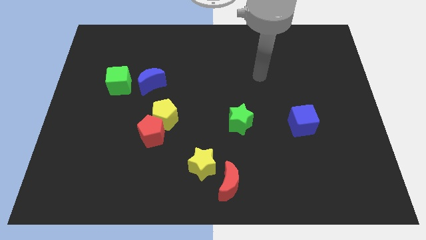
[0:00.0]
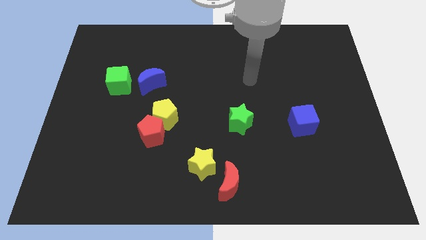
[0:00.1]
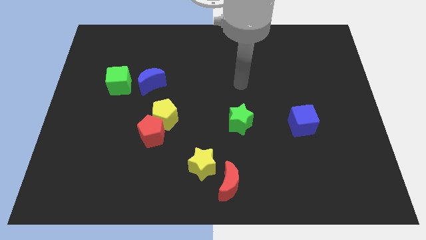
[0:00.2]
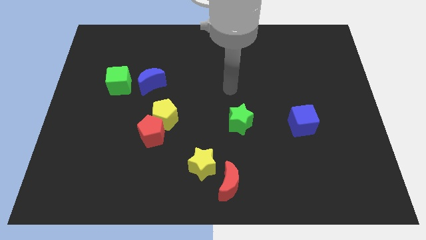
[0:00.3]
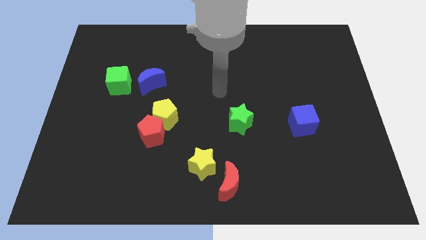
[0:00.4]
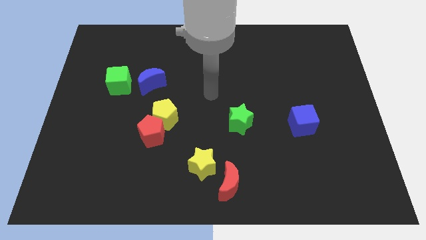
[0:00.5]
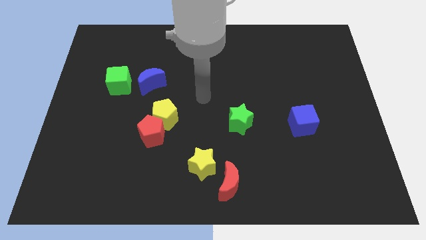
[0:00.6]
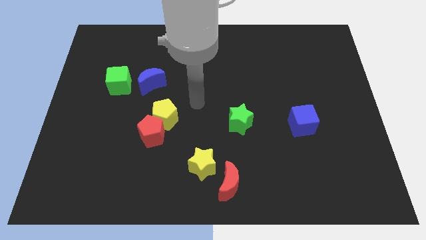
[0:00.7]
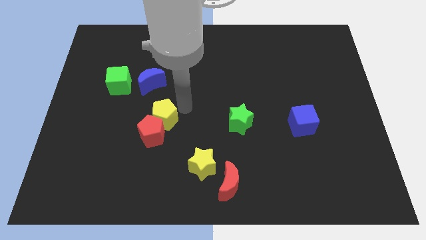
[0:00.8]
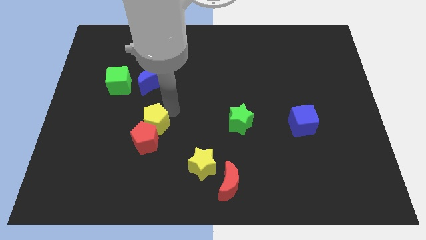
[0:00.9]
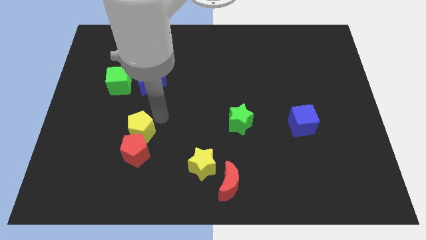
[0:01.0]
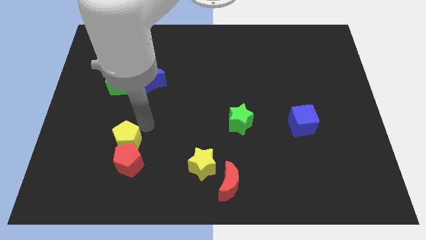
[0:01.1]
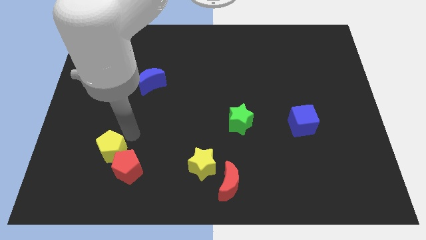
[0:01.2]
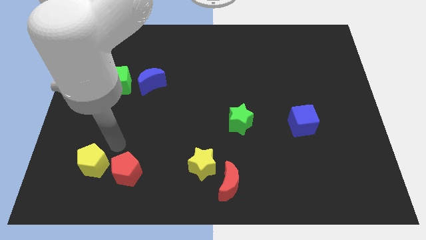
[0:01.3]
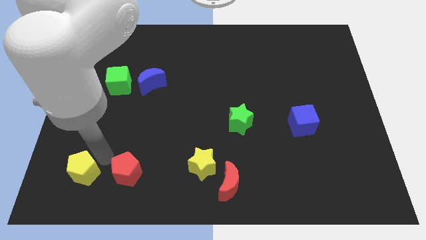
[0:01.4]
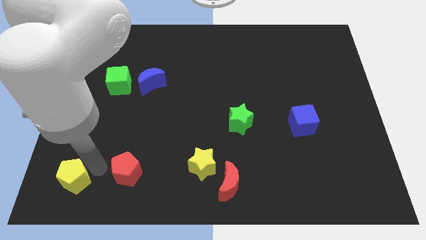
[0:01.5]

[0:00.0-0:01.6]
separate the red pentagon from the yellow pentagon

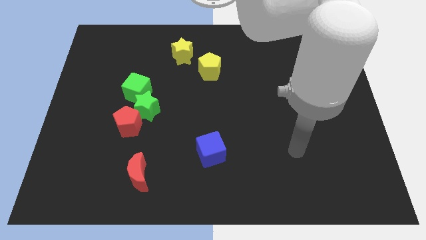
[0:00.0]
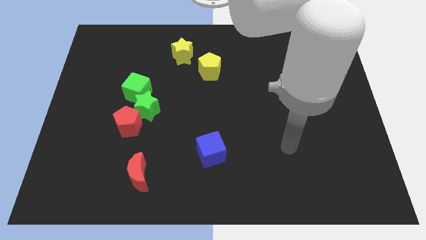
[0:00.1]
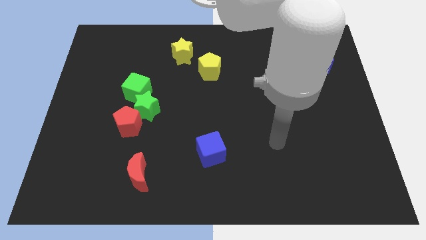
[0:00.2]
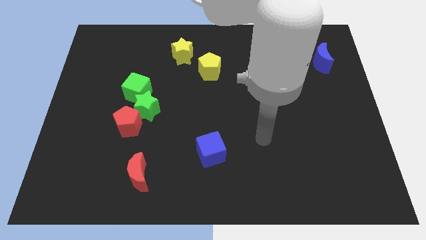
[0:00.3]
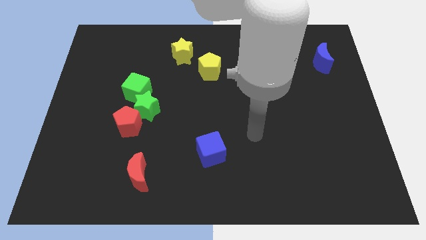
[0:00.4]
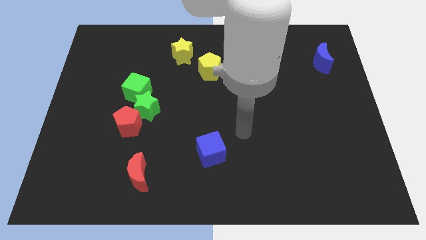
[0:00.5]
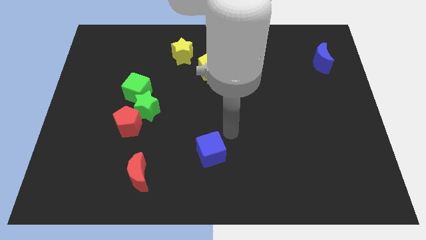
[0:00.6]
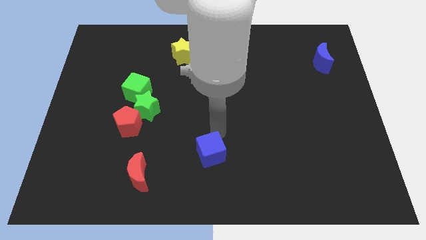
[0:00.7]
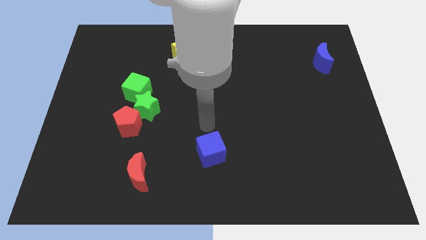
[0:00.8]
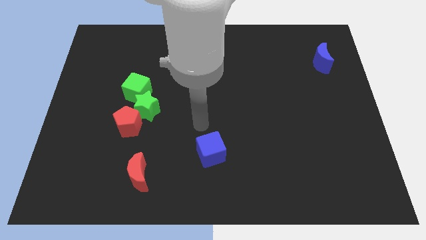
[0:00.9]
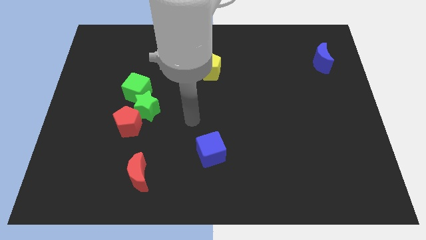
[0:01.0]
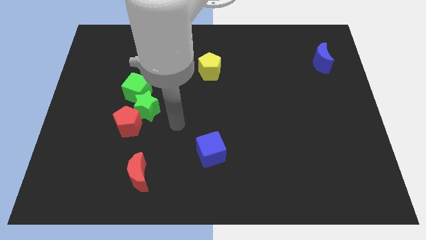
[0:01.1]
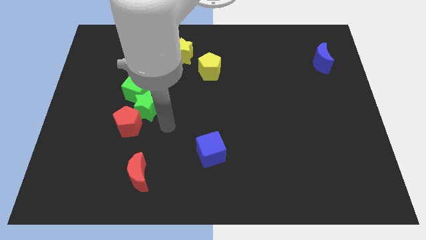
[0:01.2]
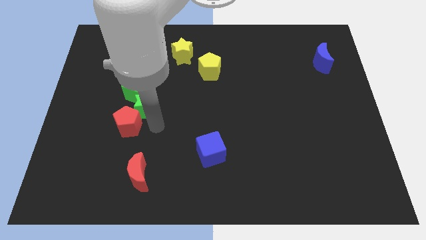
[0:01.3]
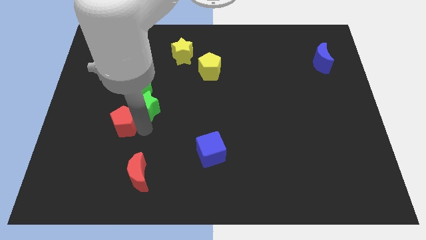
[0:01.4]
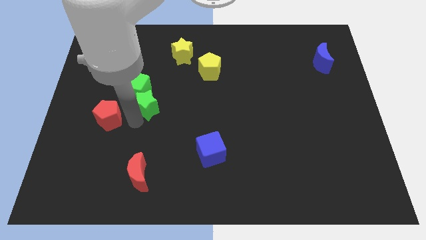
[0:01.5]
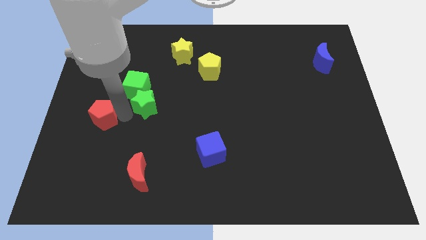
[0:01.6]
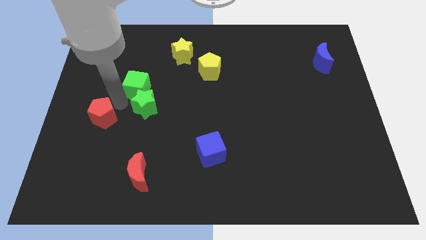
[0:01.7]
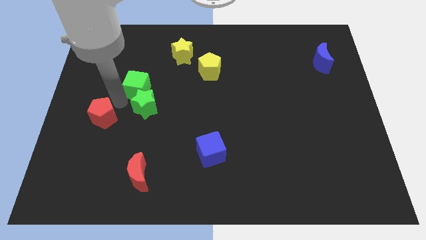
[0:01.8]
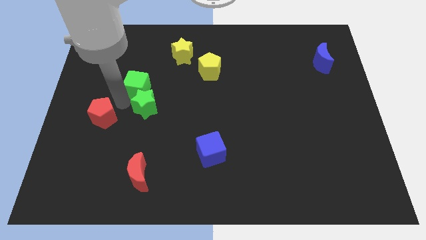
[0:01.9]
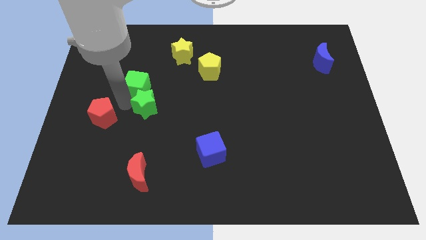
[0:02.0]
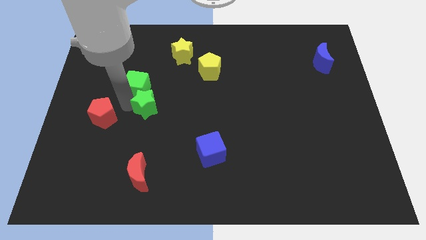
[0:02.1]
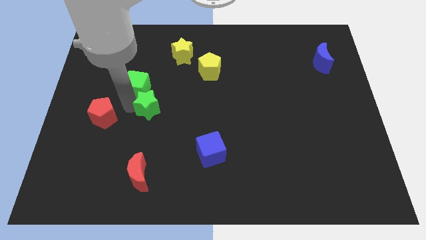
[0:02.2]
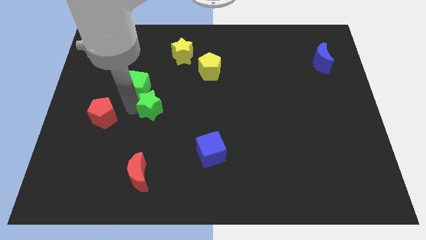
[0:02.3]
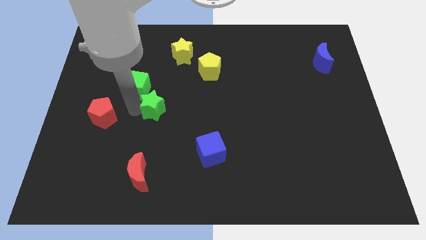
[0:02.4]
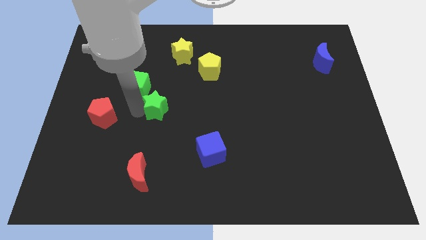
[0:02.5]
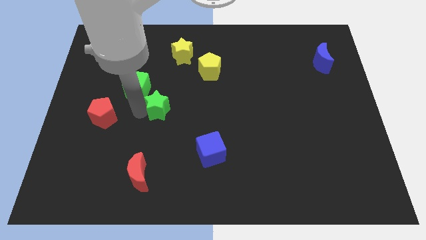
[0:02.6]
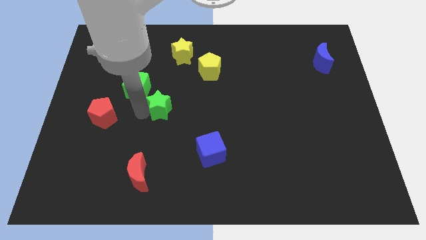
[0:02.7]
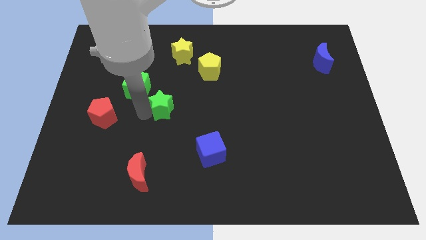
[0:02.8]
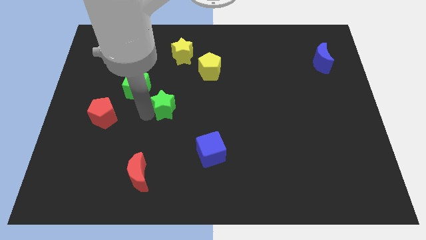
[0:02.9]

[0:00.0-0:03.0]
separate the green star from the red pentagon and green cube

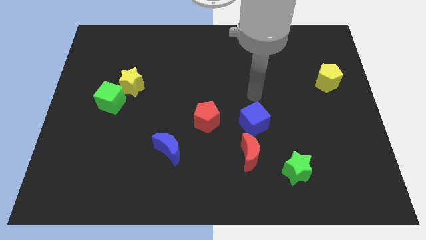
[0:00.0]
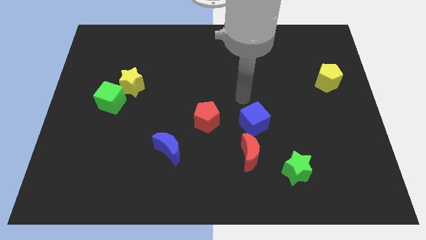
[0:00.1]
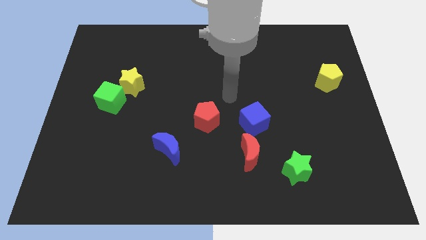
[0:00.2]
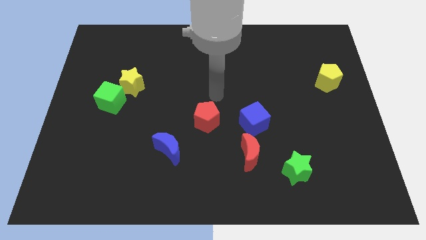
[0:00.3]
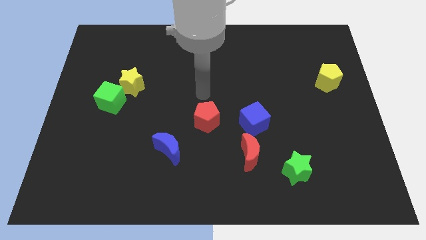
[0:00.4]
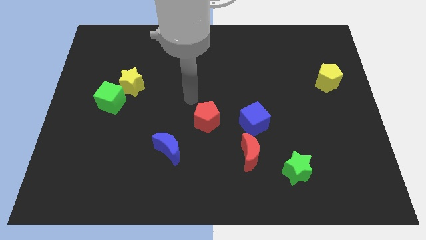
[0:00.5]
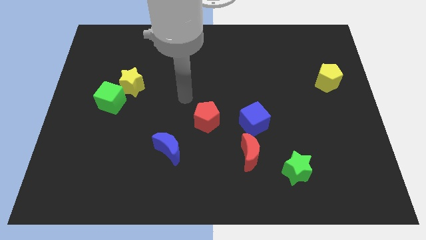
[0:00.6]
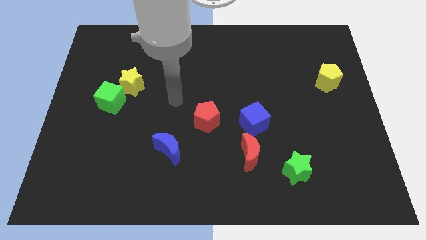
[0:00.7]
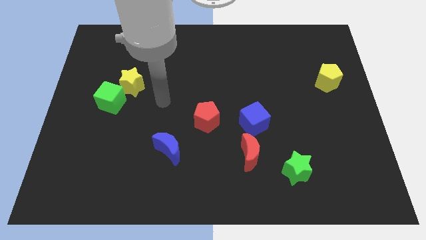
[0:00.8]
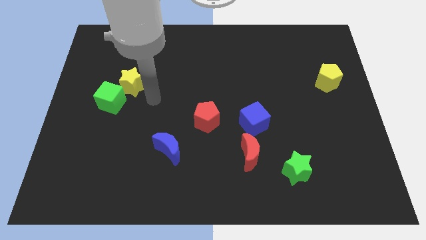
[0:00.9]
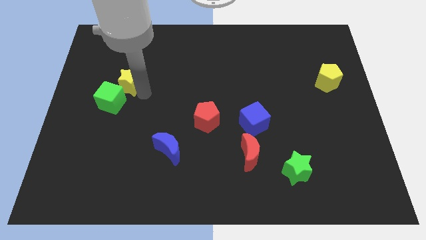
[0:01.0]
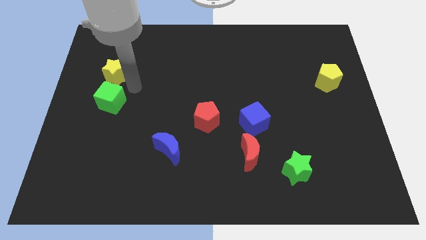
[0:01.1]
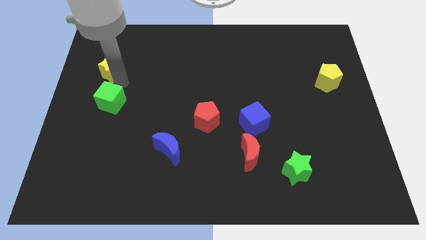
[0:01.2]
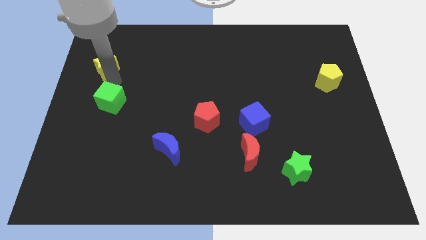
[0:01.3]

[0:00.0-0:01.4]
pull the green cube apart from the yellow star

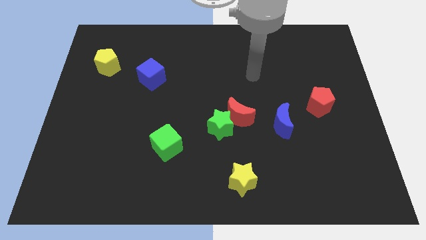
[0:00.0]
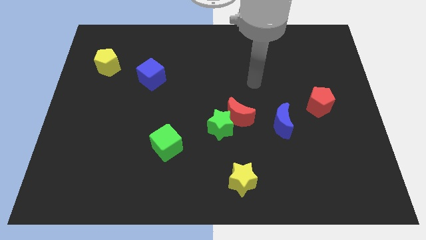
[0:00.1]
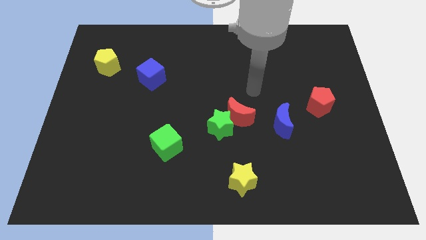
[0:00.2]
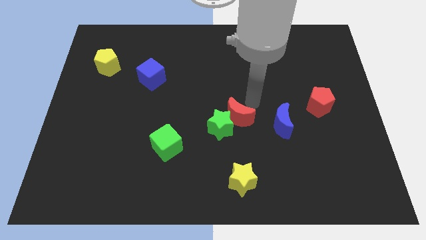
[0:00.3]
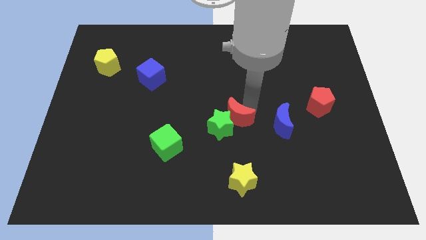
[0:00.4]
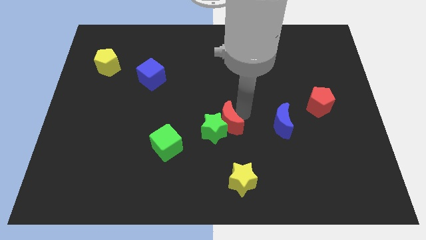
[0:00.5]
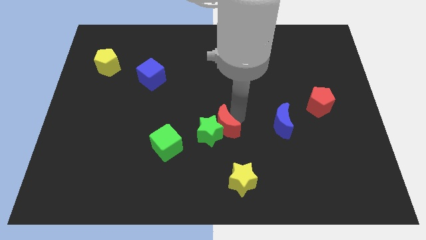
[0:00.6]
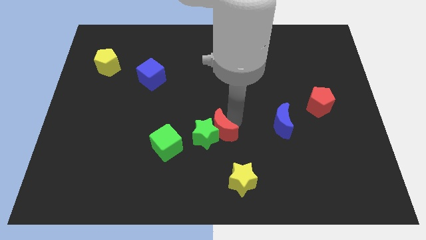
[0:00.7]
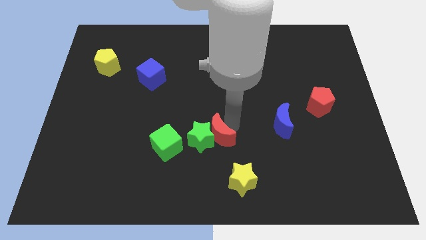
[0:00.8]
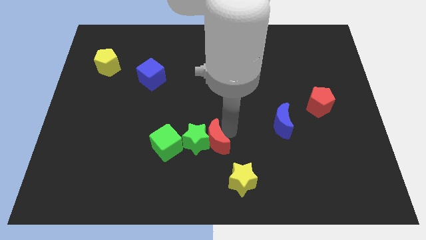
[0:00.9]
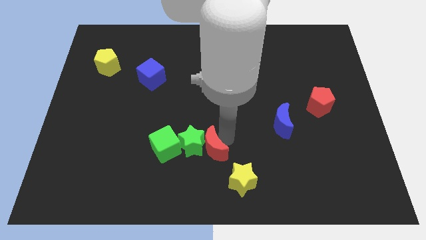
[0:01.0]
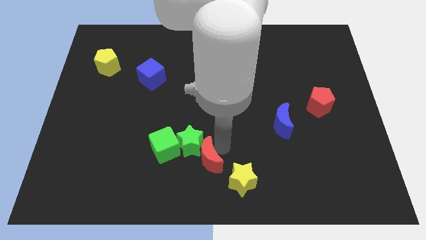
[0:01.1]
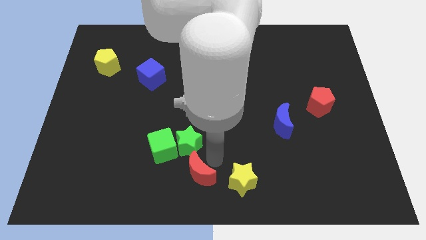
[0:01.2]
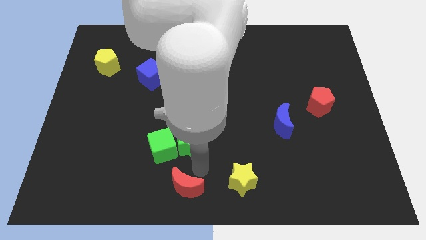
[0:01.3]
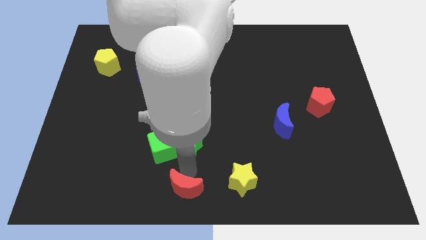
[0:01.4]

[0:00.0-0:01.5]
move the green star away from the red moon

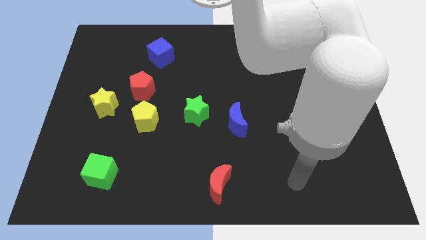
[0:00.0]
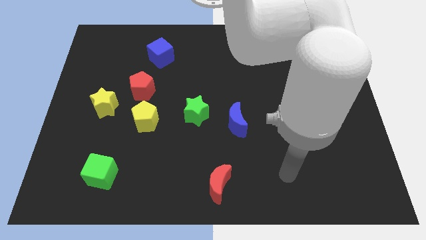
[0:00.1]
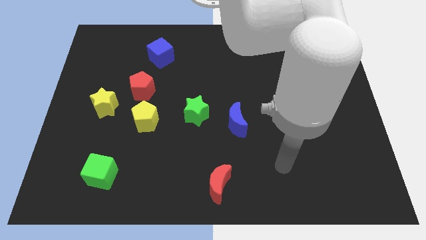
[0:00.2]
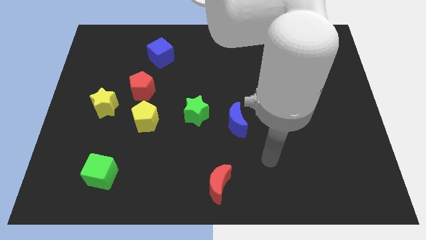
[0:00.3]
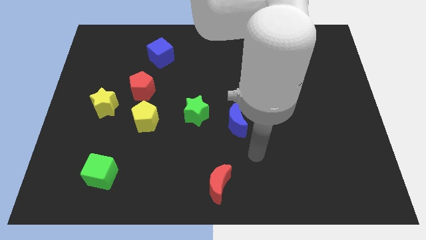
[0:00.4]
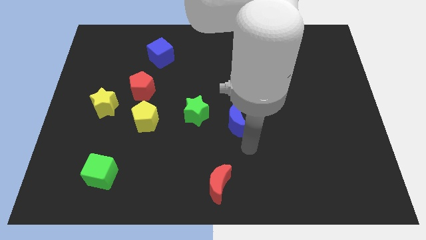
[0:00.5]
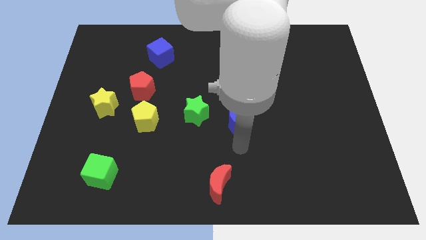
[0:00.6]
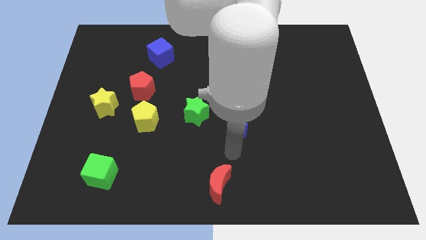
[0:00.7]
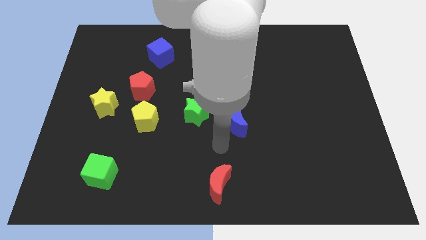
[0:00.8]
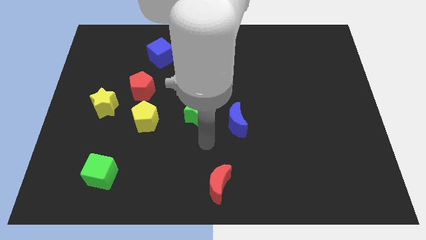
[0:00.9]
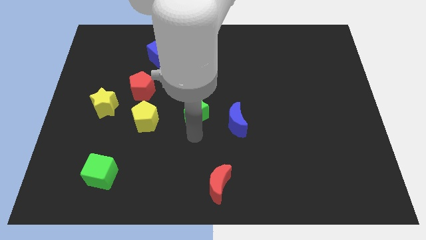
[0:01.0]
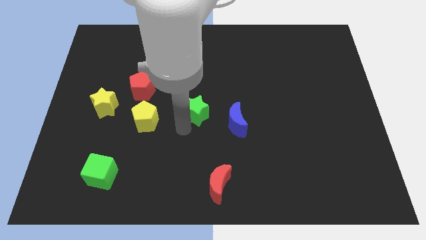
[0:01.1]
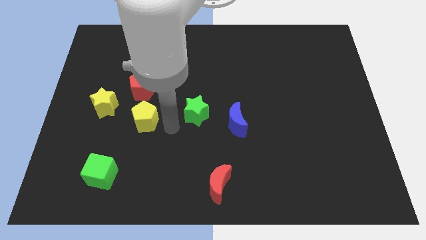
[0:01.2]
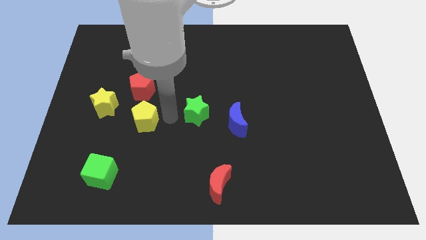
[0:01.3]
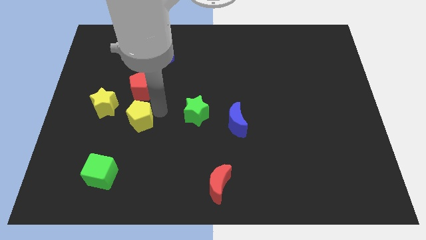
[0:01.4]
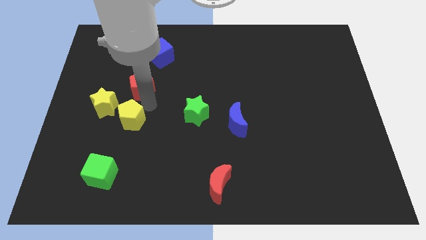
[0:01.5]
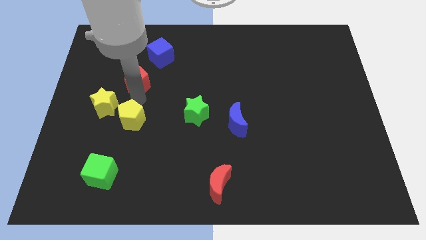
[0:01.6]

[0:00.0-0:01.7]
move the yellow star away from the red pentagon

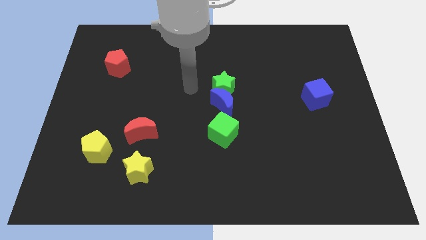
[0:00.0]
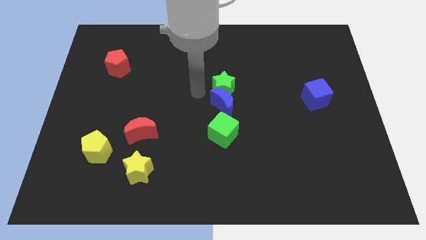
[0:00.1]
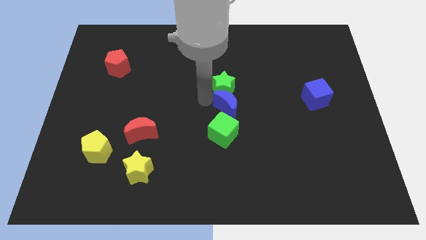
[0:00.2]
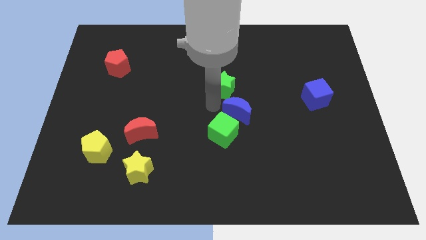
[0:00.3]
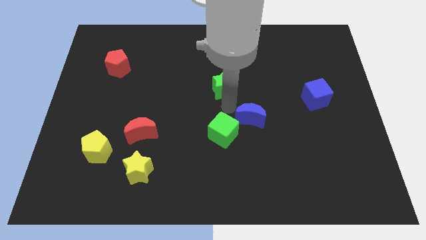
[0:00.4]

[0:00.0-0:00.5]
pull the green star apart from the blue moon
